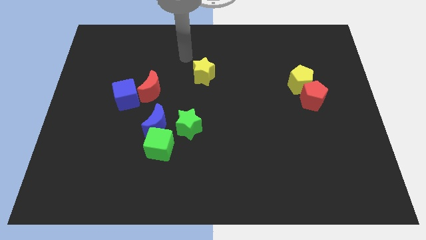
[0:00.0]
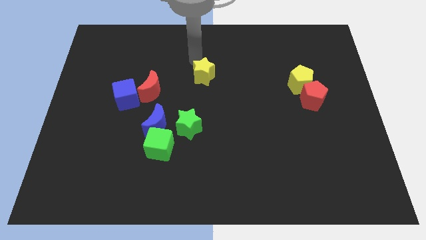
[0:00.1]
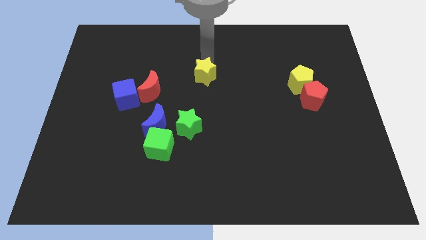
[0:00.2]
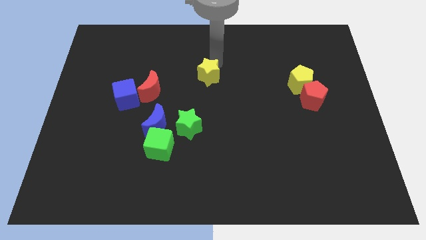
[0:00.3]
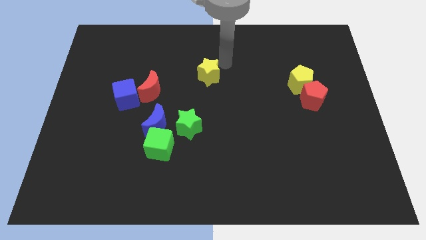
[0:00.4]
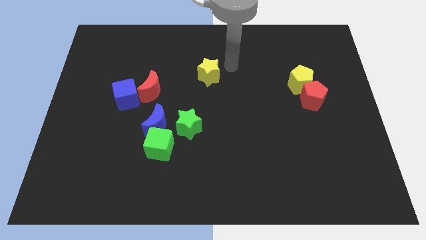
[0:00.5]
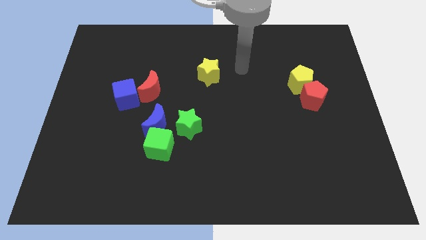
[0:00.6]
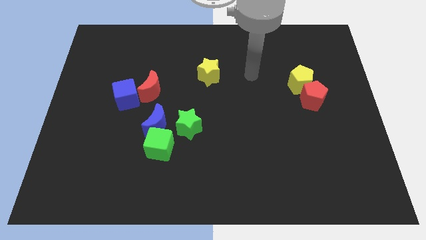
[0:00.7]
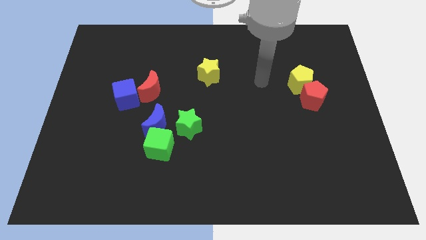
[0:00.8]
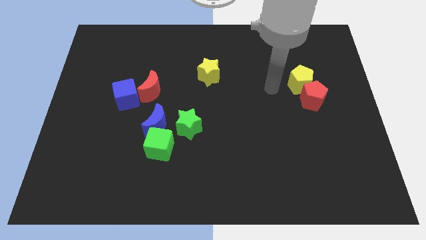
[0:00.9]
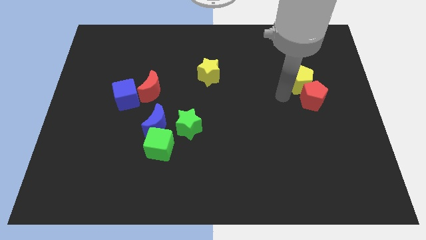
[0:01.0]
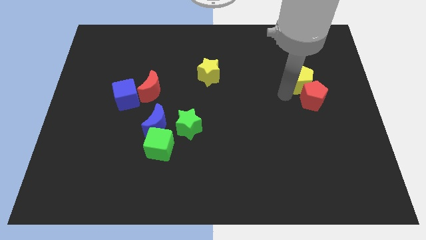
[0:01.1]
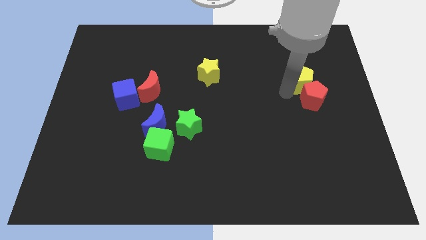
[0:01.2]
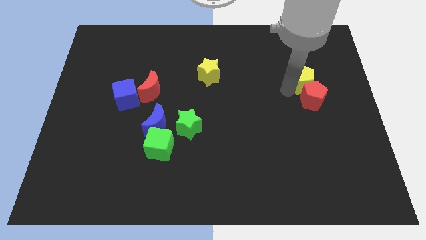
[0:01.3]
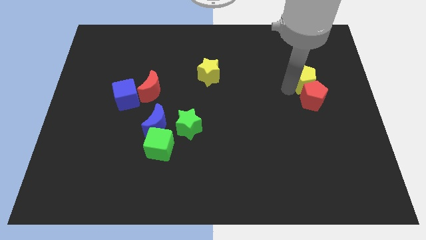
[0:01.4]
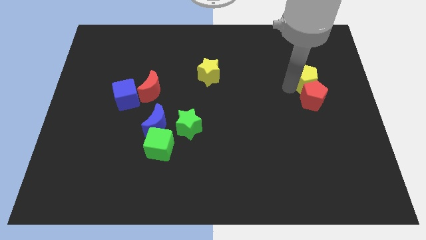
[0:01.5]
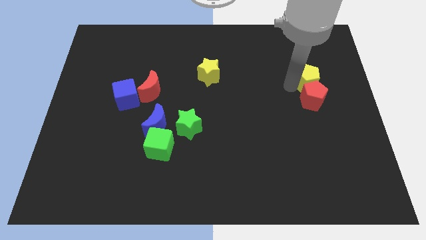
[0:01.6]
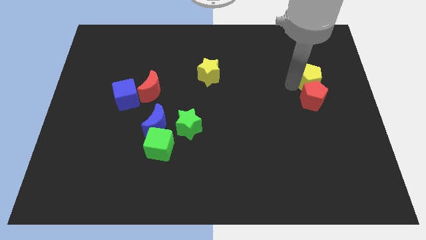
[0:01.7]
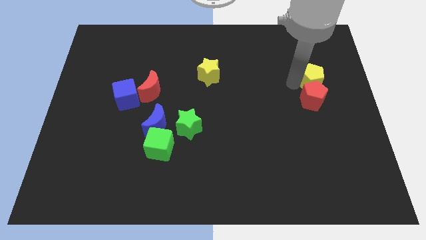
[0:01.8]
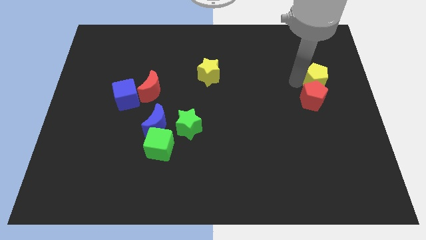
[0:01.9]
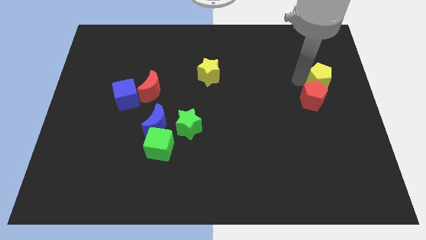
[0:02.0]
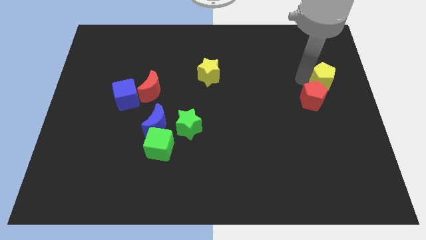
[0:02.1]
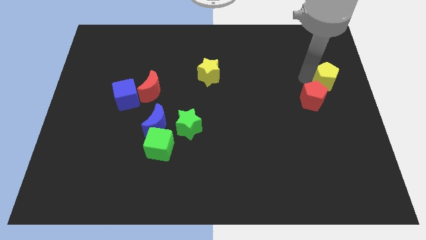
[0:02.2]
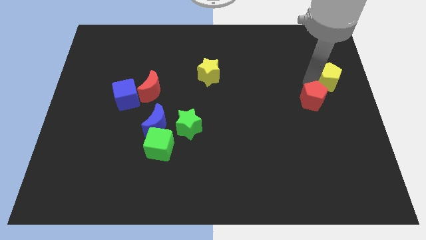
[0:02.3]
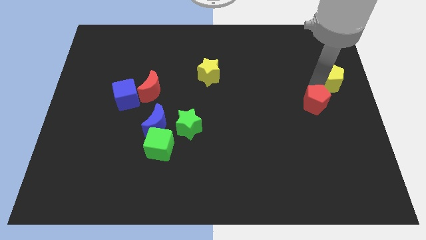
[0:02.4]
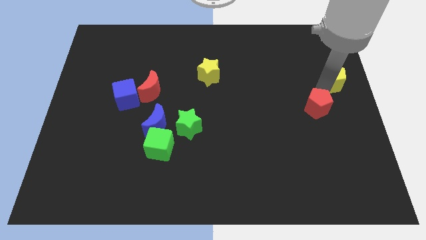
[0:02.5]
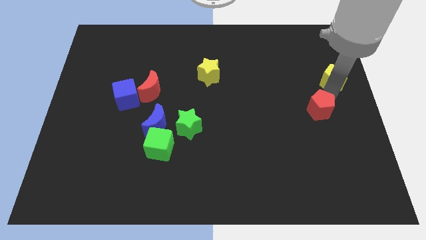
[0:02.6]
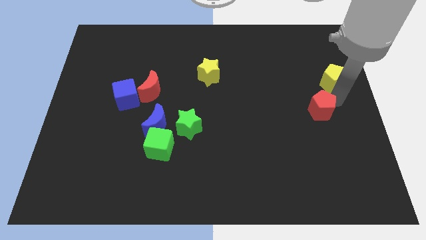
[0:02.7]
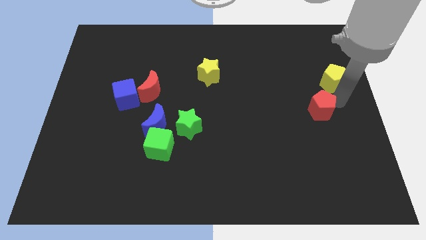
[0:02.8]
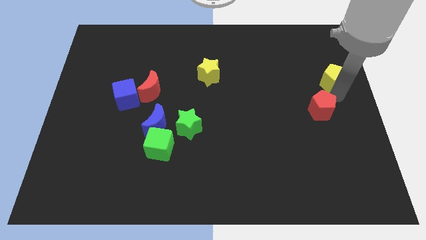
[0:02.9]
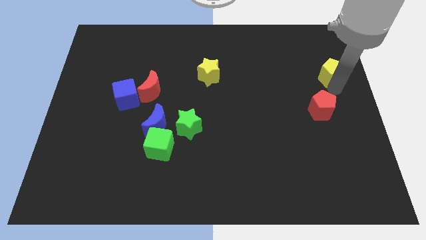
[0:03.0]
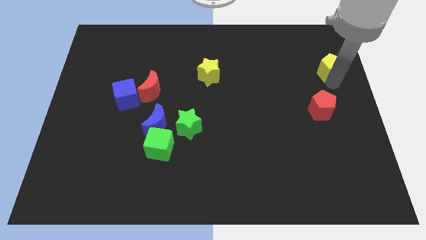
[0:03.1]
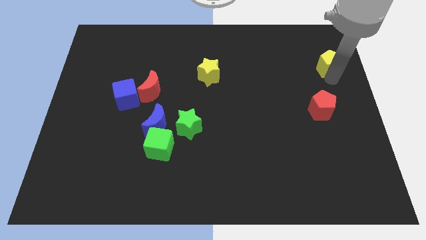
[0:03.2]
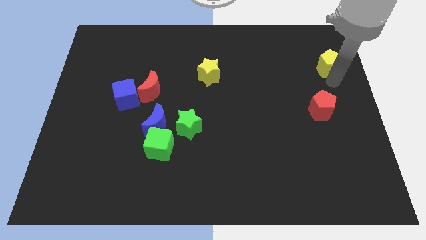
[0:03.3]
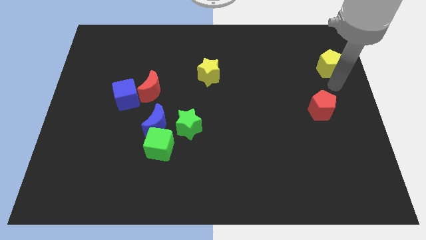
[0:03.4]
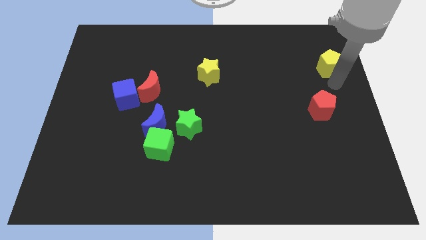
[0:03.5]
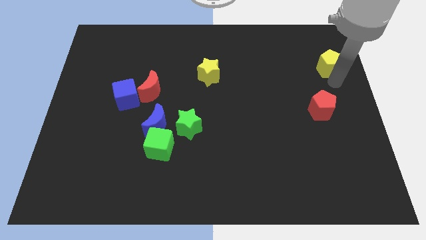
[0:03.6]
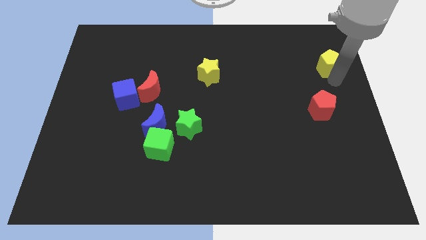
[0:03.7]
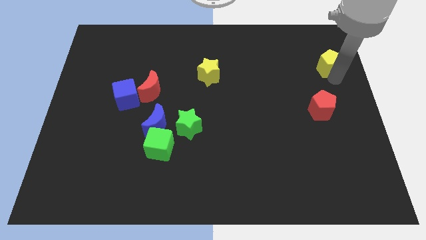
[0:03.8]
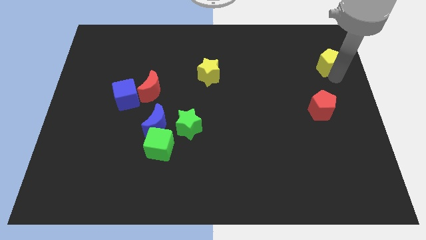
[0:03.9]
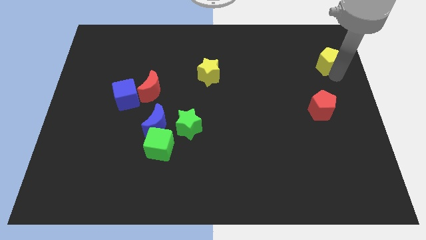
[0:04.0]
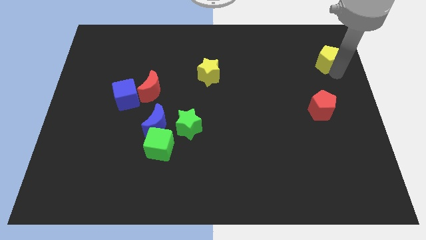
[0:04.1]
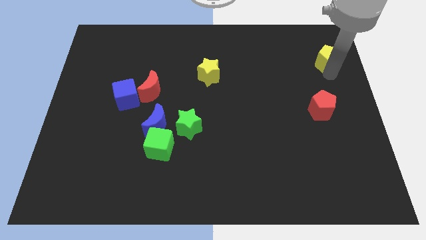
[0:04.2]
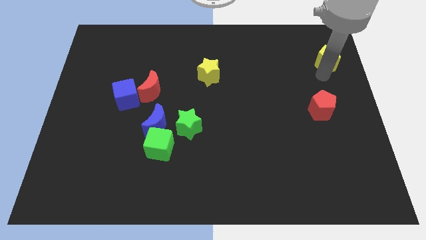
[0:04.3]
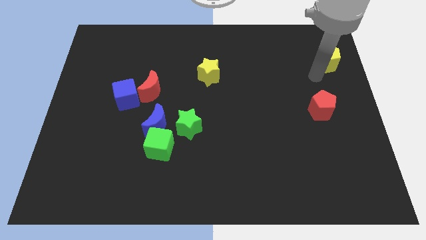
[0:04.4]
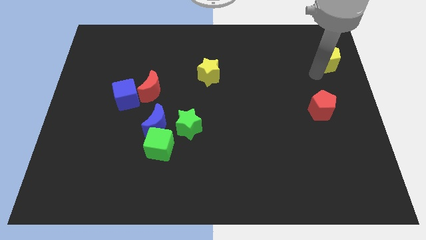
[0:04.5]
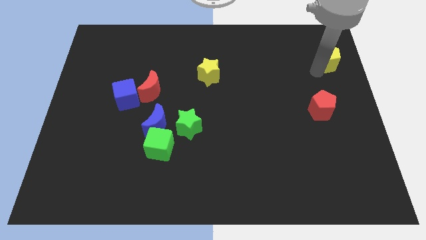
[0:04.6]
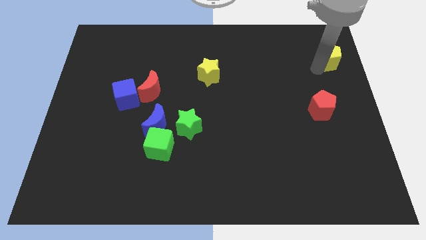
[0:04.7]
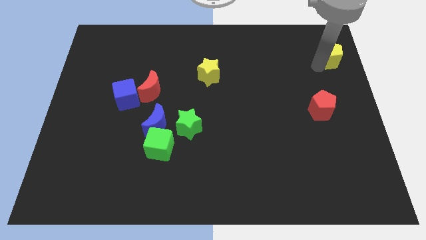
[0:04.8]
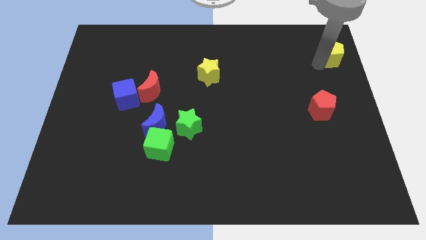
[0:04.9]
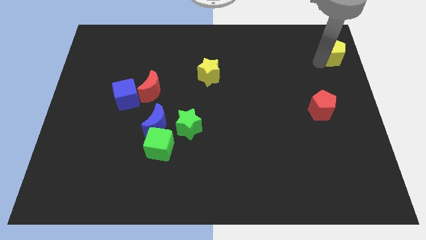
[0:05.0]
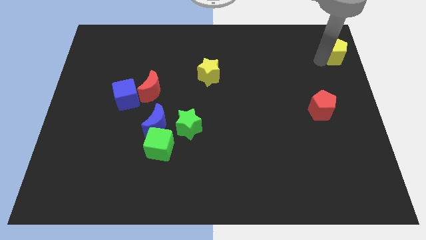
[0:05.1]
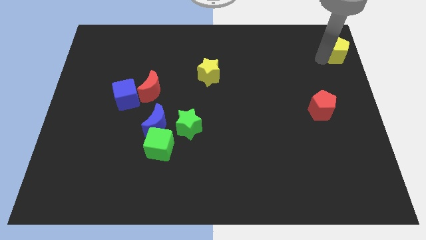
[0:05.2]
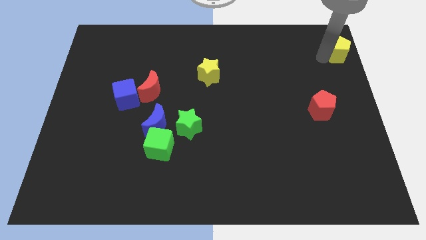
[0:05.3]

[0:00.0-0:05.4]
push the yellow pentagon to the top right
